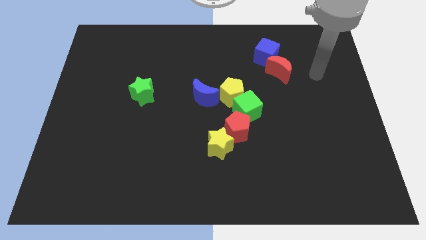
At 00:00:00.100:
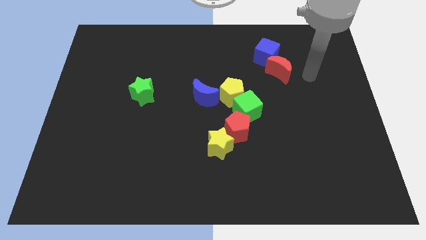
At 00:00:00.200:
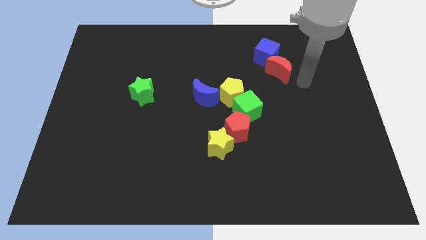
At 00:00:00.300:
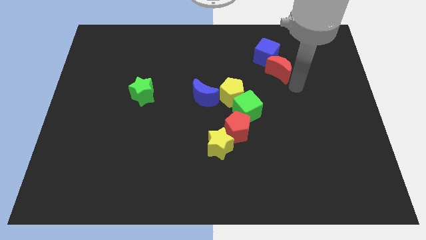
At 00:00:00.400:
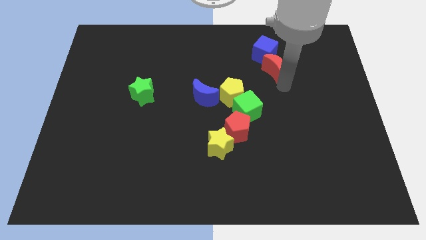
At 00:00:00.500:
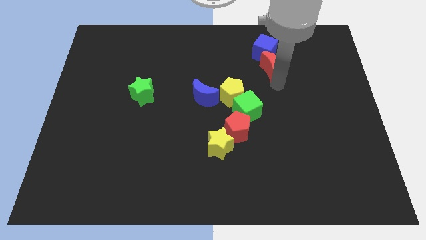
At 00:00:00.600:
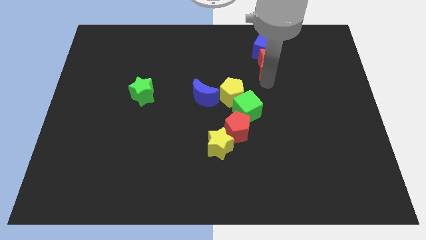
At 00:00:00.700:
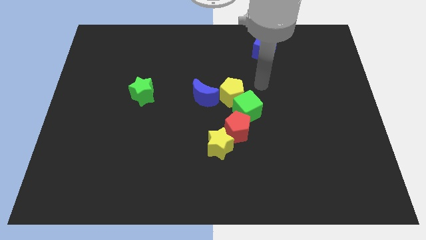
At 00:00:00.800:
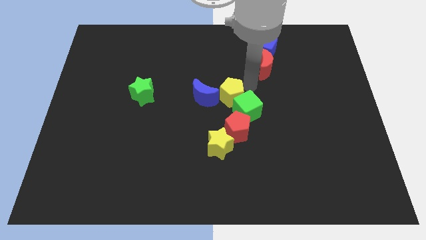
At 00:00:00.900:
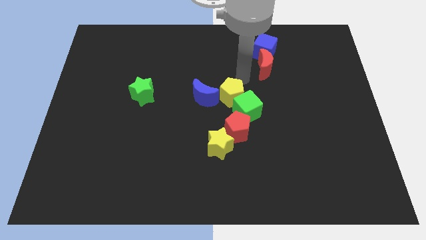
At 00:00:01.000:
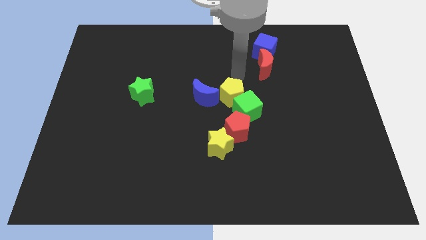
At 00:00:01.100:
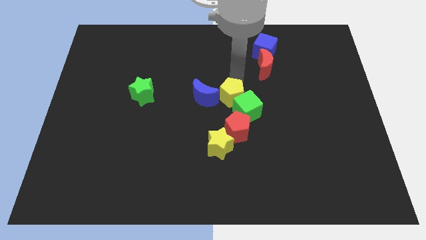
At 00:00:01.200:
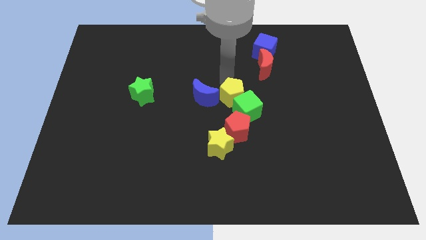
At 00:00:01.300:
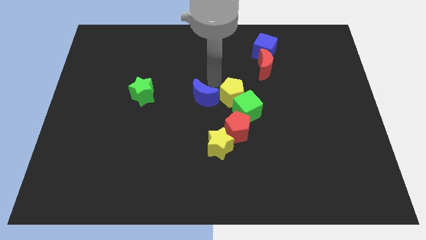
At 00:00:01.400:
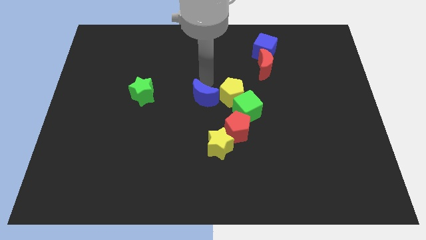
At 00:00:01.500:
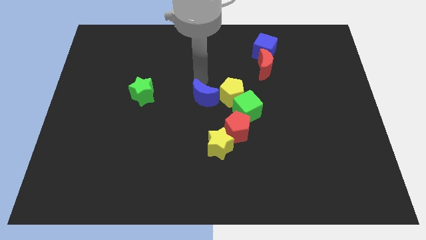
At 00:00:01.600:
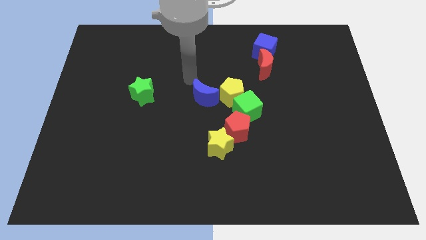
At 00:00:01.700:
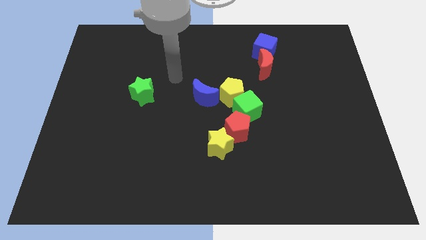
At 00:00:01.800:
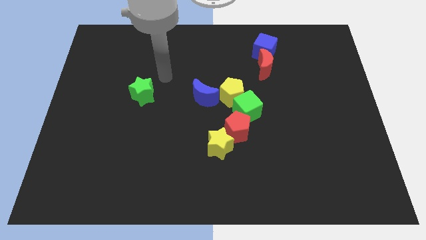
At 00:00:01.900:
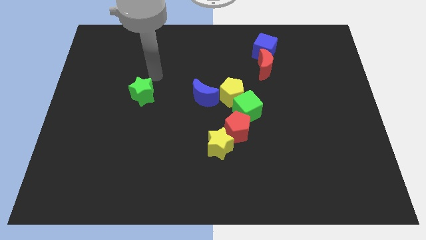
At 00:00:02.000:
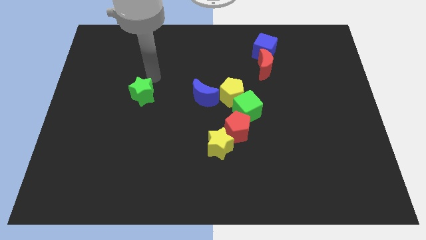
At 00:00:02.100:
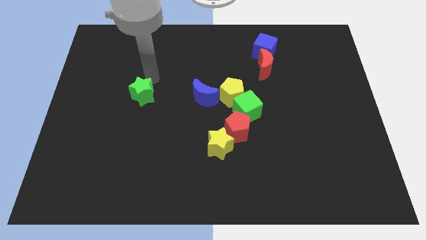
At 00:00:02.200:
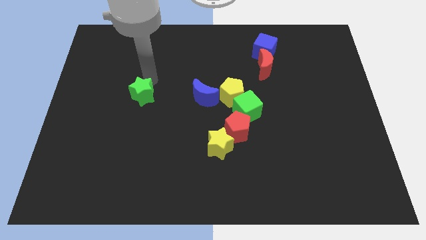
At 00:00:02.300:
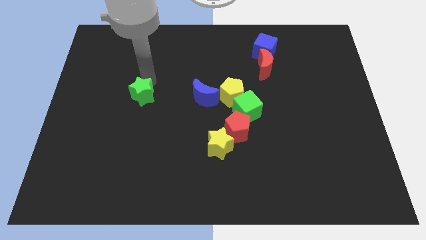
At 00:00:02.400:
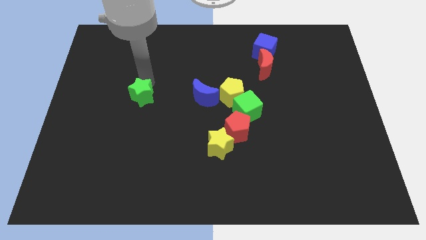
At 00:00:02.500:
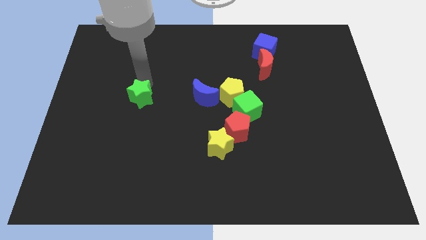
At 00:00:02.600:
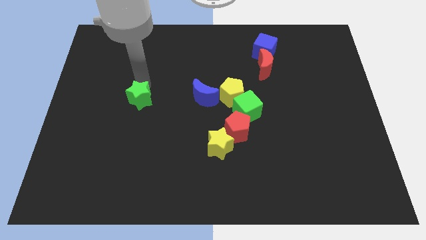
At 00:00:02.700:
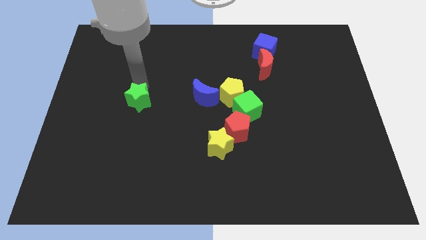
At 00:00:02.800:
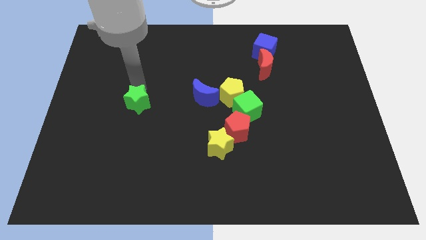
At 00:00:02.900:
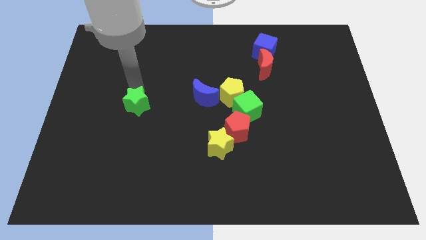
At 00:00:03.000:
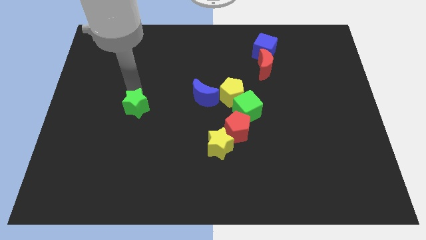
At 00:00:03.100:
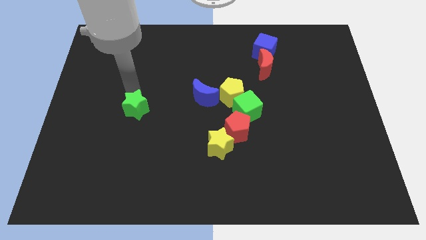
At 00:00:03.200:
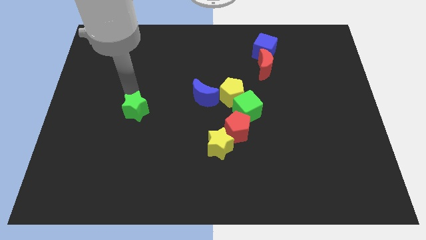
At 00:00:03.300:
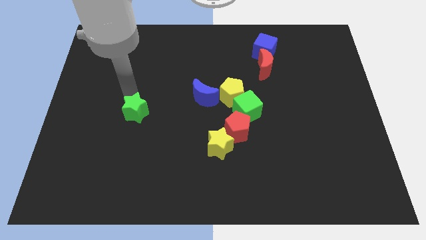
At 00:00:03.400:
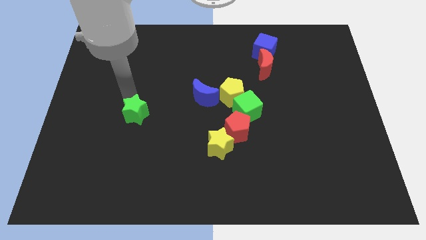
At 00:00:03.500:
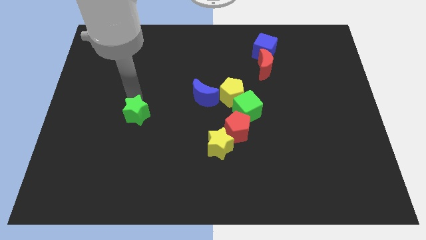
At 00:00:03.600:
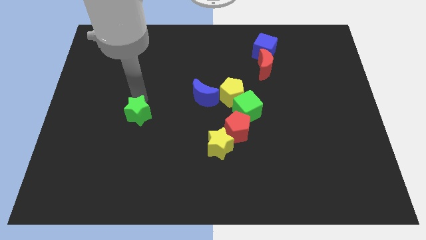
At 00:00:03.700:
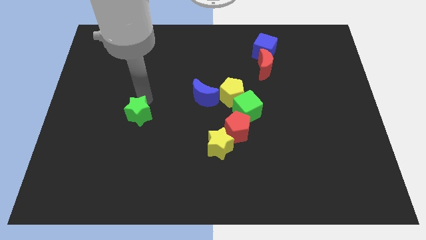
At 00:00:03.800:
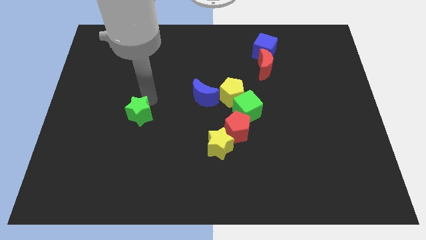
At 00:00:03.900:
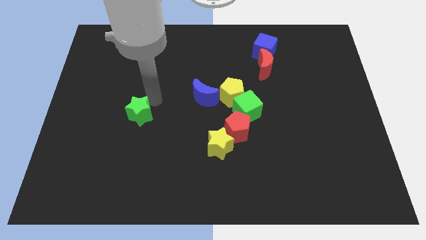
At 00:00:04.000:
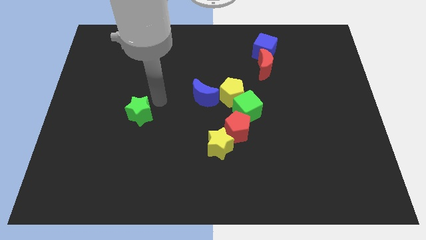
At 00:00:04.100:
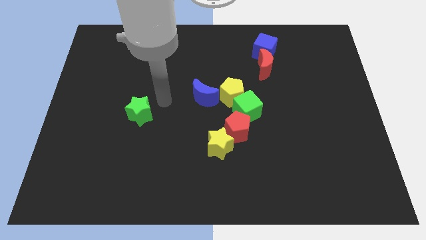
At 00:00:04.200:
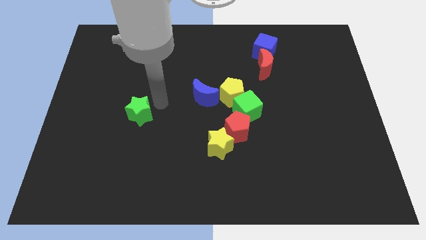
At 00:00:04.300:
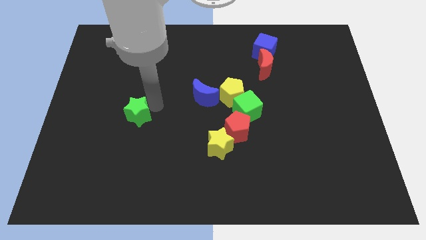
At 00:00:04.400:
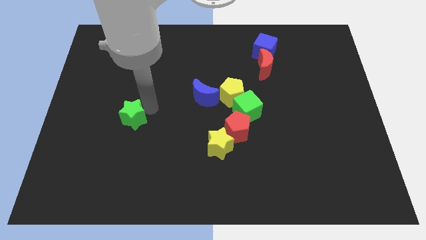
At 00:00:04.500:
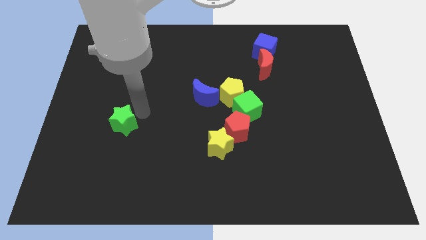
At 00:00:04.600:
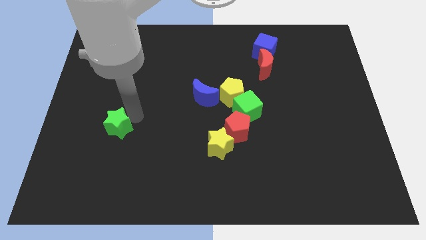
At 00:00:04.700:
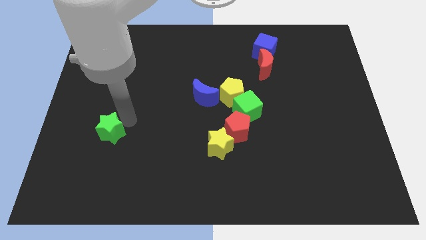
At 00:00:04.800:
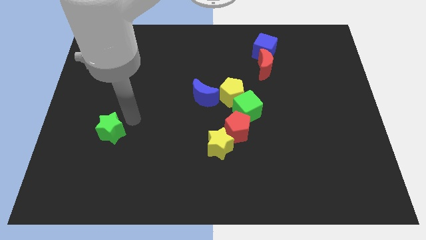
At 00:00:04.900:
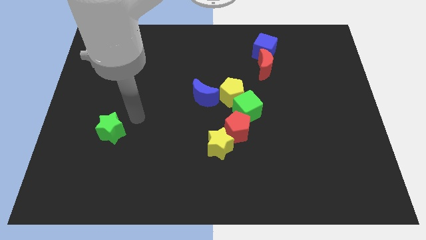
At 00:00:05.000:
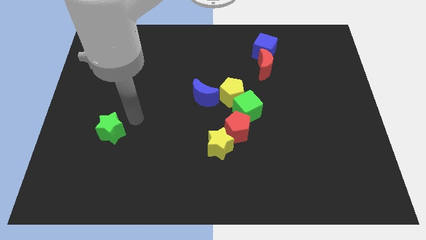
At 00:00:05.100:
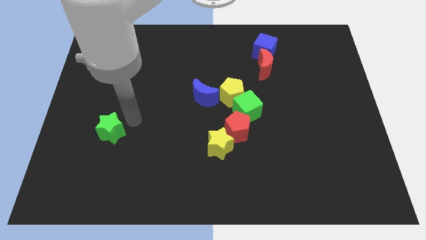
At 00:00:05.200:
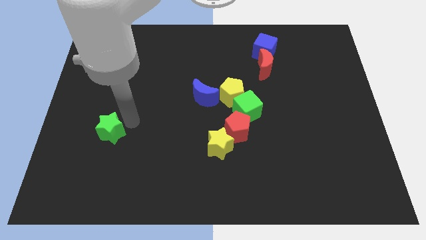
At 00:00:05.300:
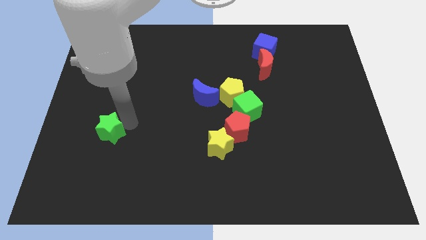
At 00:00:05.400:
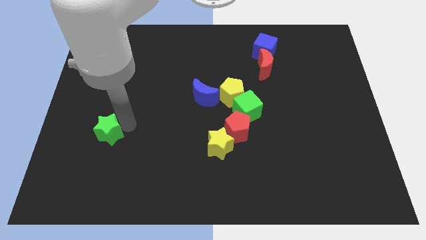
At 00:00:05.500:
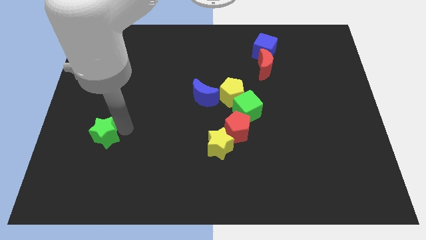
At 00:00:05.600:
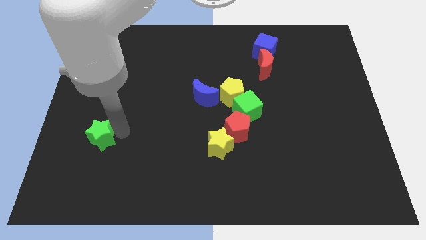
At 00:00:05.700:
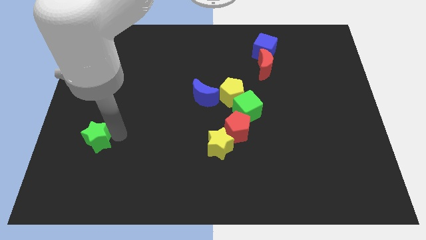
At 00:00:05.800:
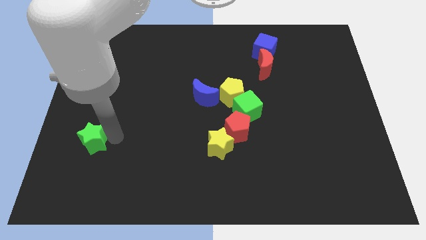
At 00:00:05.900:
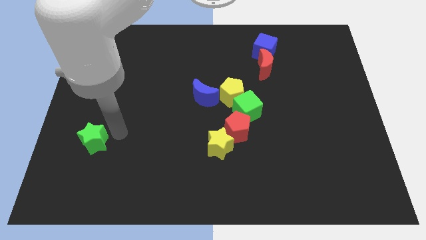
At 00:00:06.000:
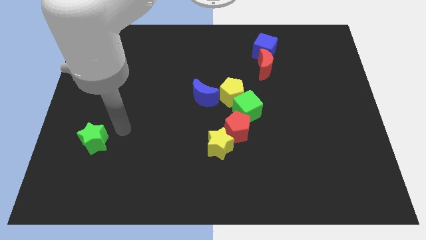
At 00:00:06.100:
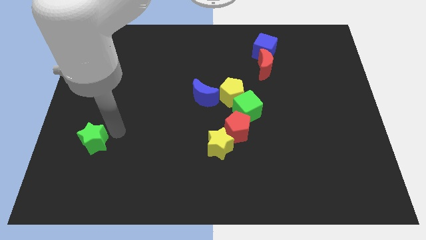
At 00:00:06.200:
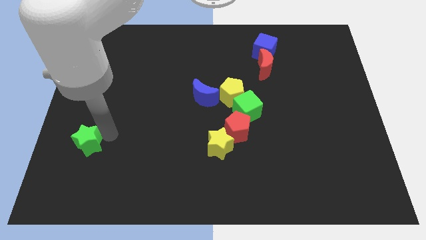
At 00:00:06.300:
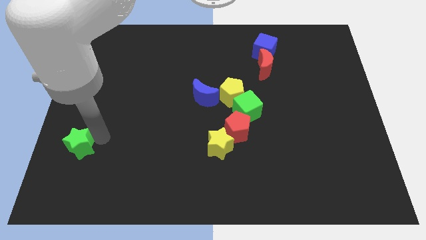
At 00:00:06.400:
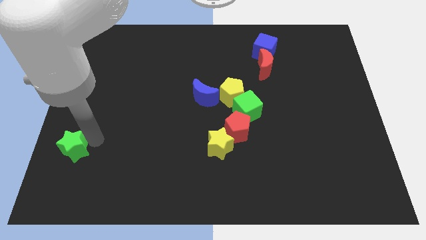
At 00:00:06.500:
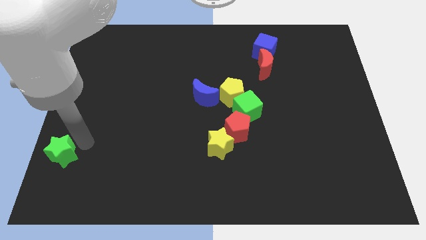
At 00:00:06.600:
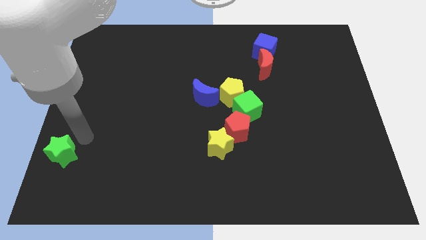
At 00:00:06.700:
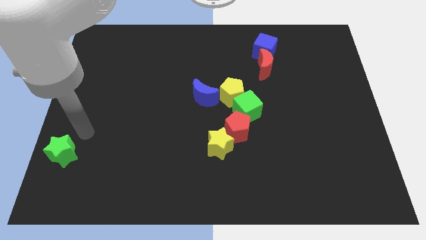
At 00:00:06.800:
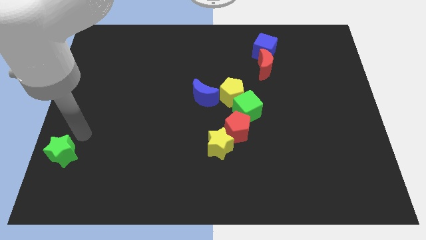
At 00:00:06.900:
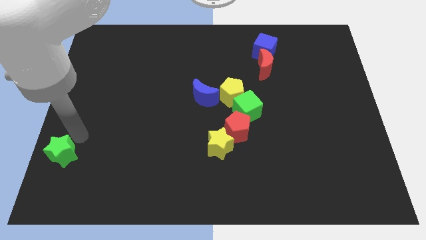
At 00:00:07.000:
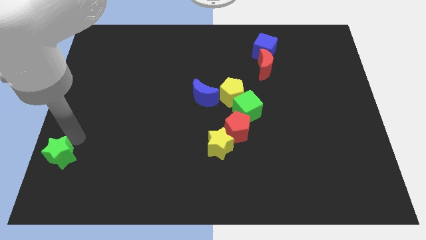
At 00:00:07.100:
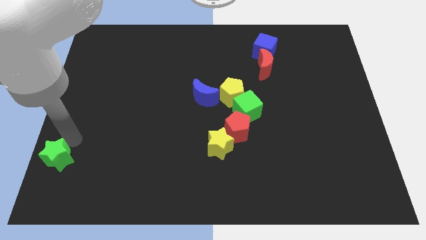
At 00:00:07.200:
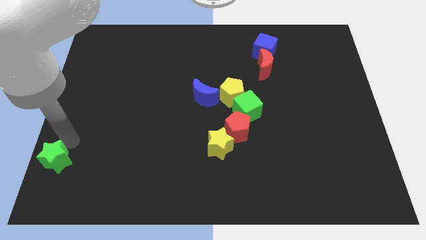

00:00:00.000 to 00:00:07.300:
move the green star to the bottom left corner
